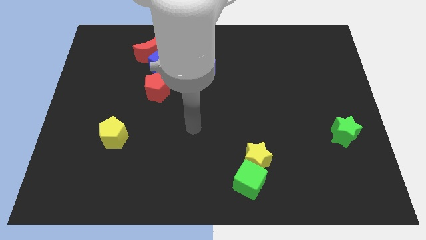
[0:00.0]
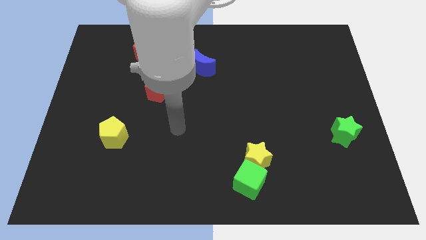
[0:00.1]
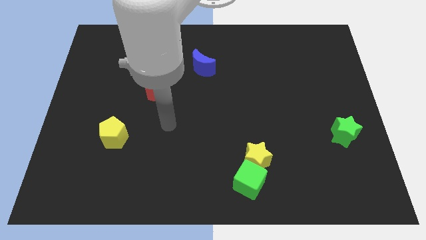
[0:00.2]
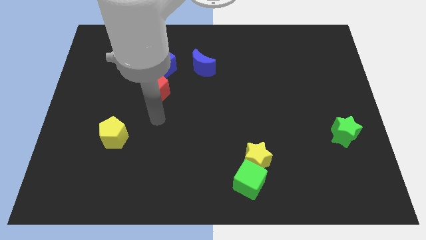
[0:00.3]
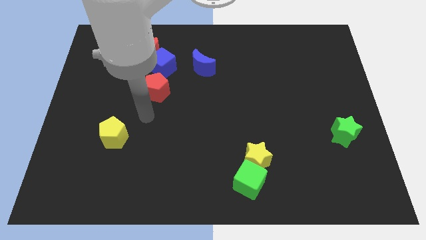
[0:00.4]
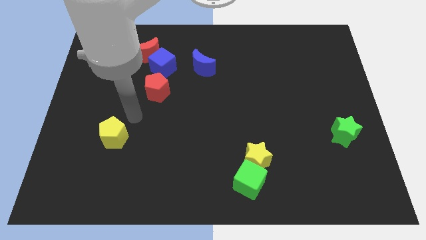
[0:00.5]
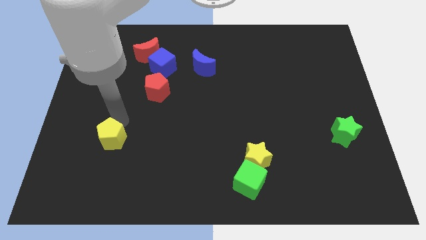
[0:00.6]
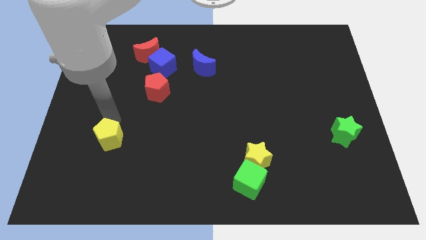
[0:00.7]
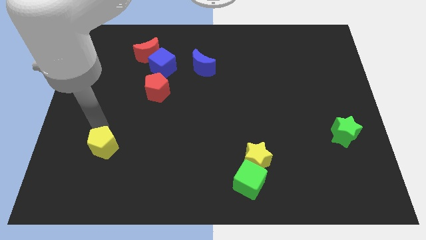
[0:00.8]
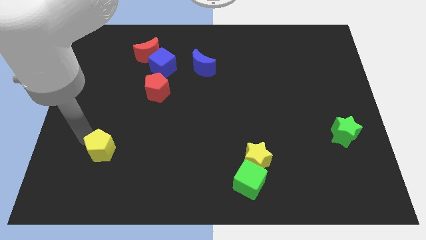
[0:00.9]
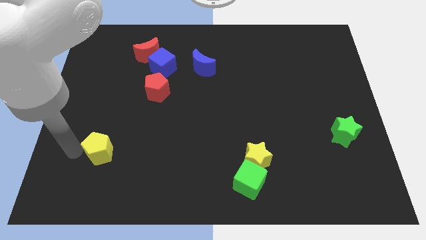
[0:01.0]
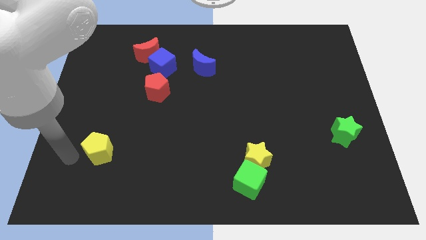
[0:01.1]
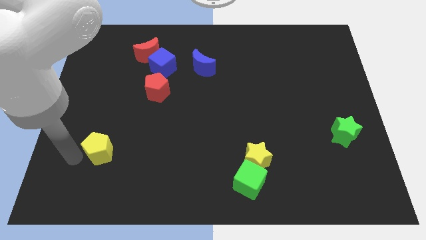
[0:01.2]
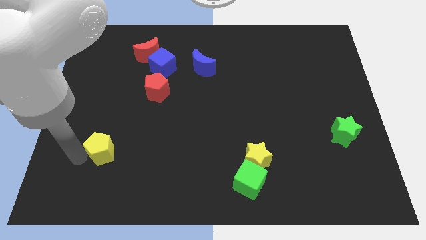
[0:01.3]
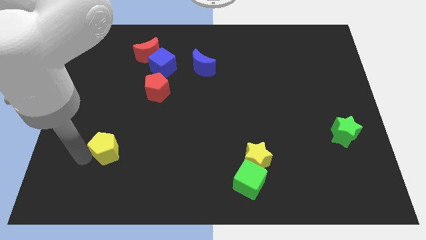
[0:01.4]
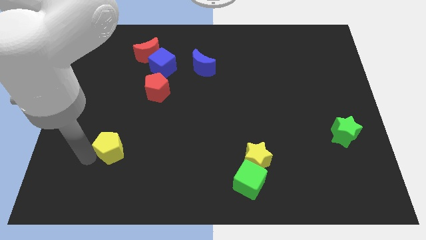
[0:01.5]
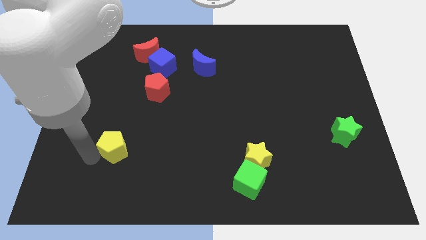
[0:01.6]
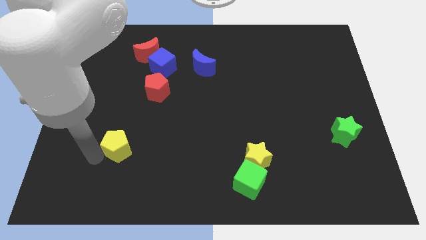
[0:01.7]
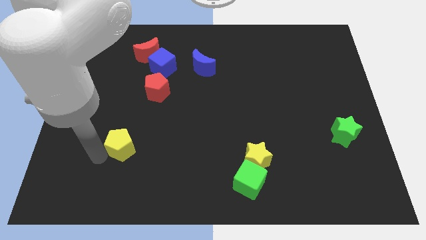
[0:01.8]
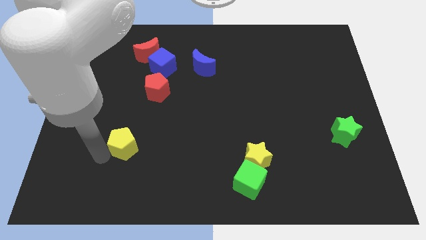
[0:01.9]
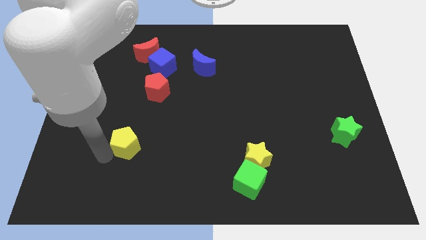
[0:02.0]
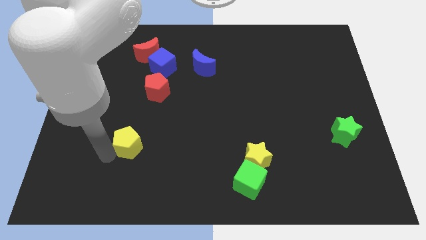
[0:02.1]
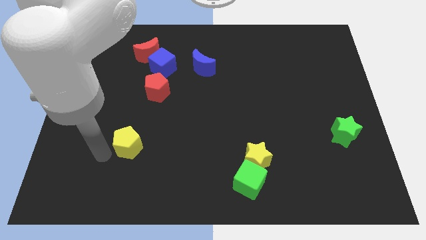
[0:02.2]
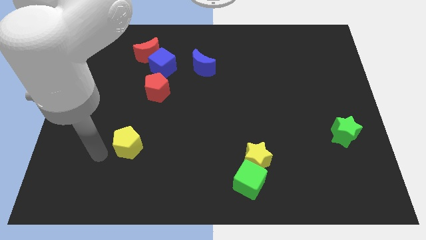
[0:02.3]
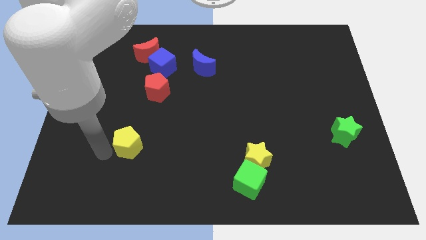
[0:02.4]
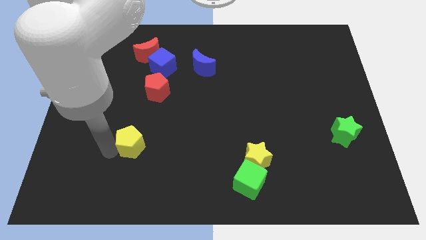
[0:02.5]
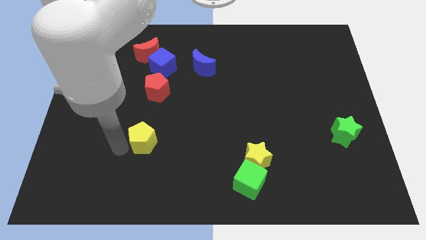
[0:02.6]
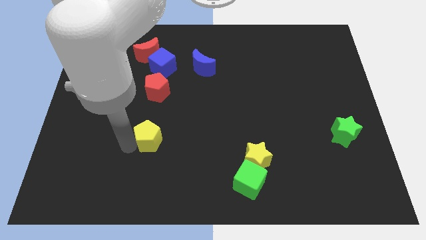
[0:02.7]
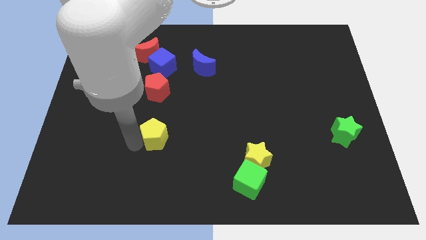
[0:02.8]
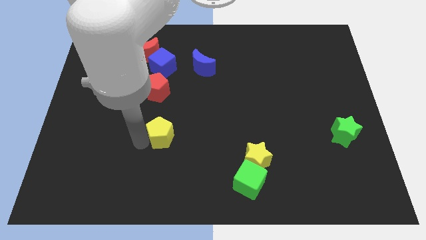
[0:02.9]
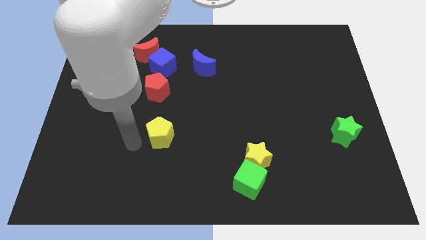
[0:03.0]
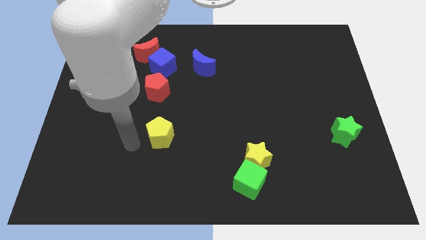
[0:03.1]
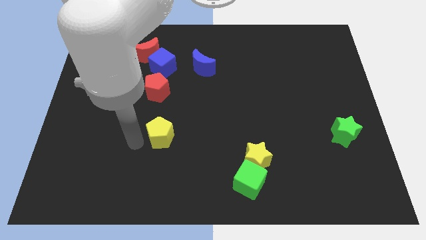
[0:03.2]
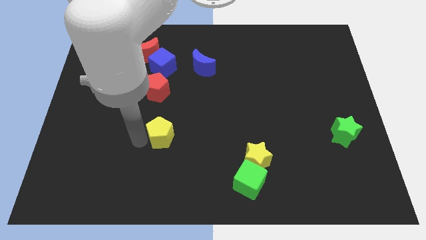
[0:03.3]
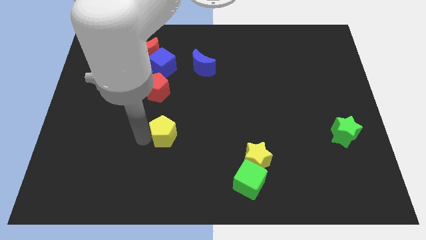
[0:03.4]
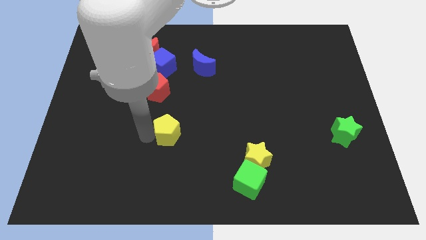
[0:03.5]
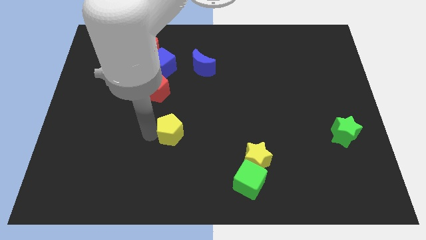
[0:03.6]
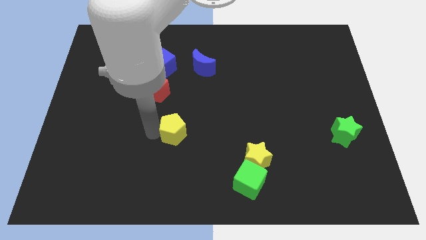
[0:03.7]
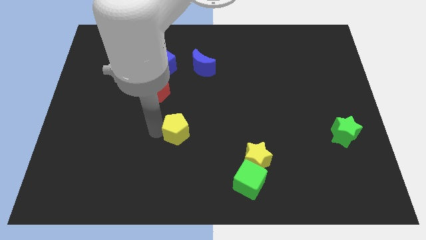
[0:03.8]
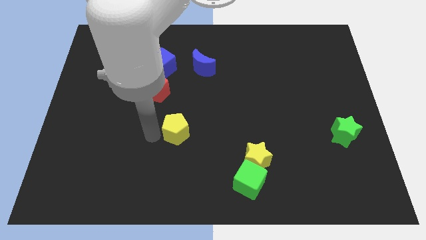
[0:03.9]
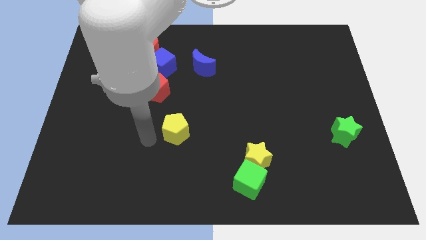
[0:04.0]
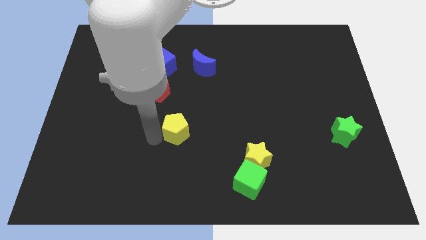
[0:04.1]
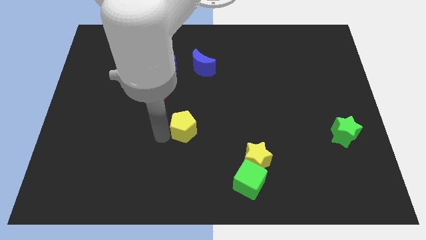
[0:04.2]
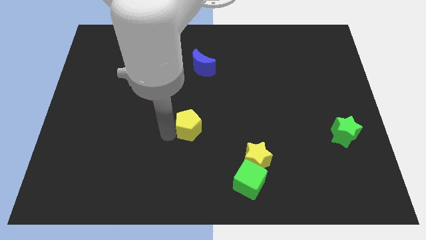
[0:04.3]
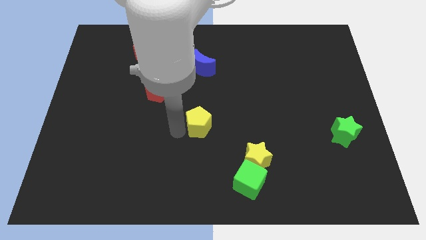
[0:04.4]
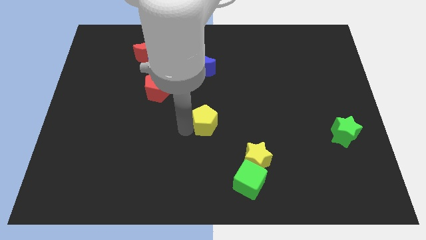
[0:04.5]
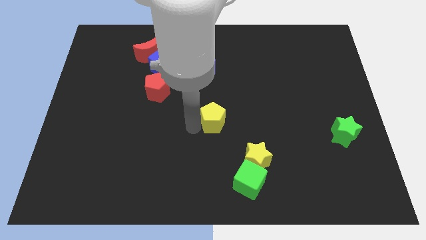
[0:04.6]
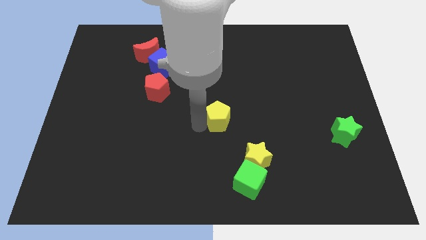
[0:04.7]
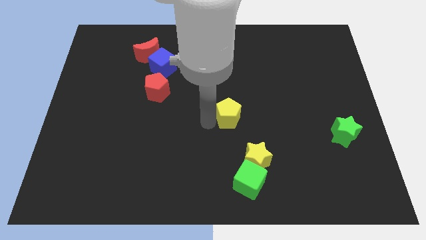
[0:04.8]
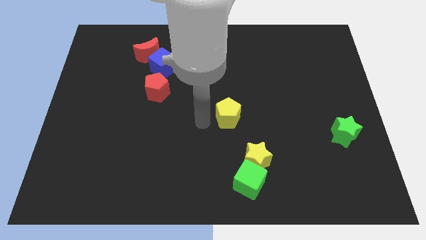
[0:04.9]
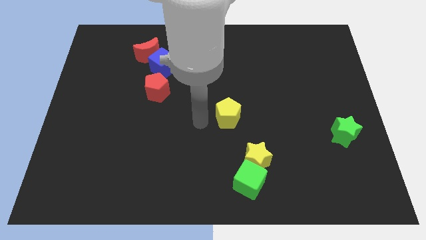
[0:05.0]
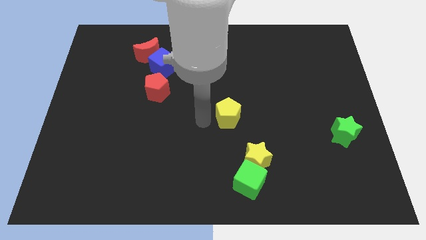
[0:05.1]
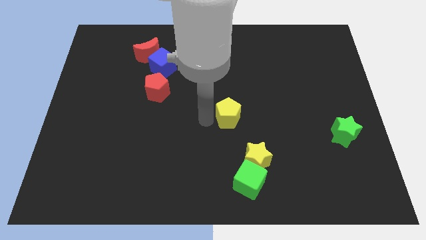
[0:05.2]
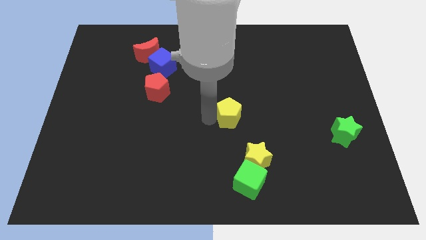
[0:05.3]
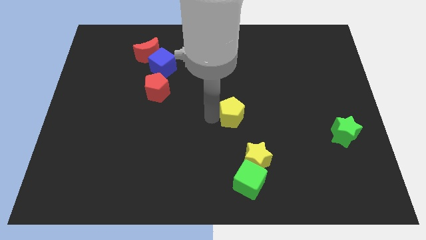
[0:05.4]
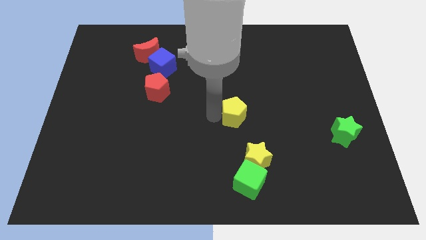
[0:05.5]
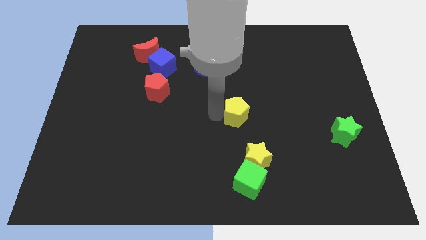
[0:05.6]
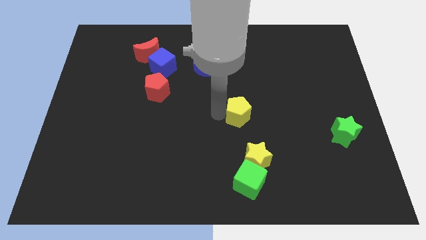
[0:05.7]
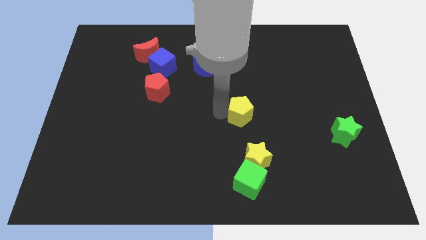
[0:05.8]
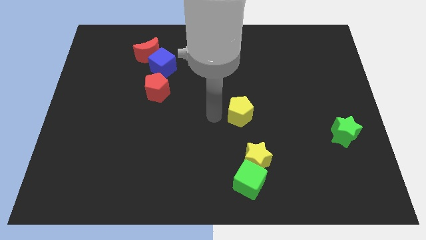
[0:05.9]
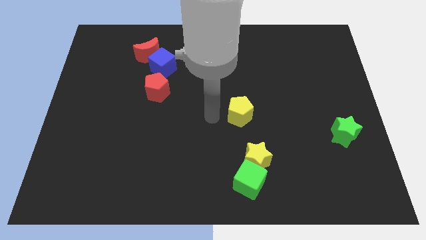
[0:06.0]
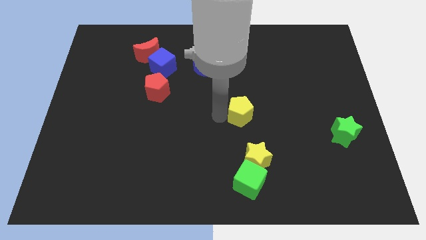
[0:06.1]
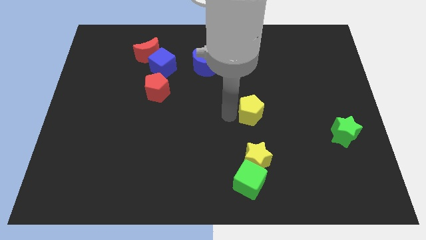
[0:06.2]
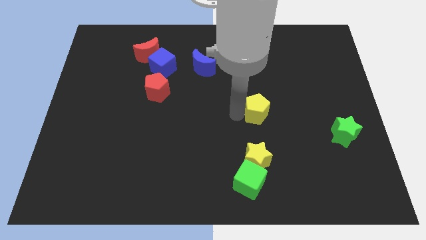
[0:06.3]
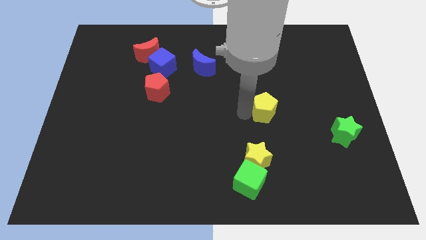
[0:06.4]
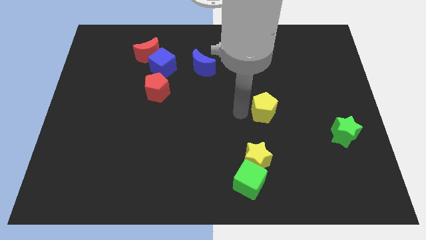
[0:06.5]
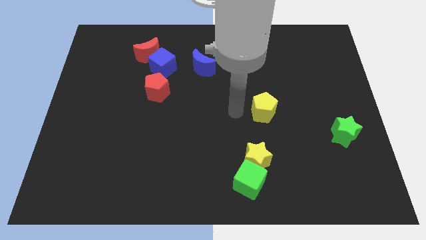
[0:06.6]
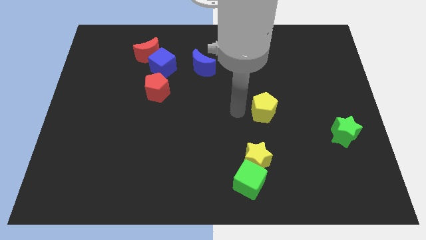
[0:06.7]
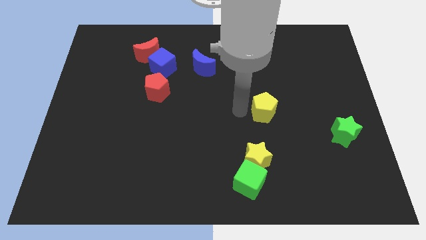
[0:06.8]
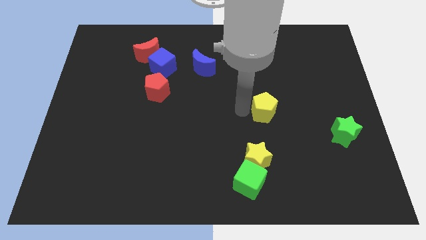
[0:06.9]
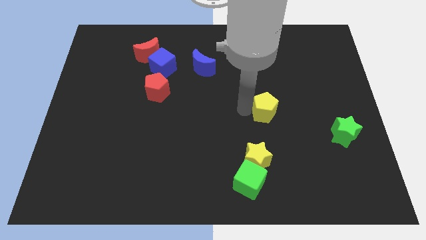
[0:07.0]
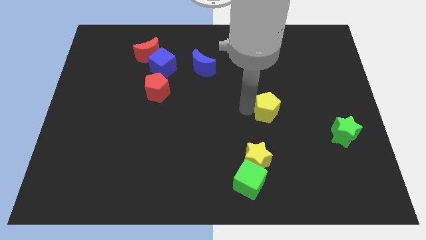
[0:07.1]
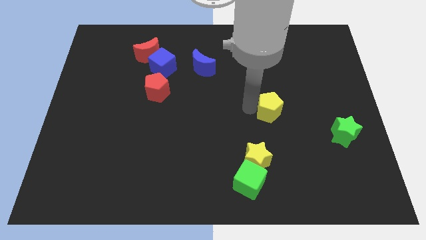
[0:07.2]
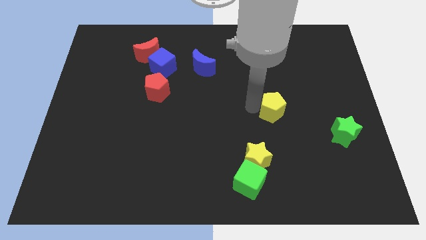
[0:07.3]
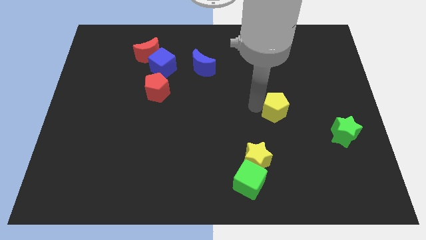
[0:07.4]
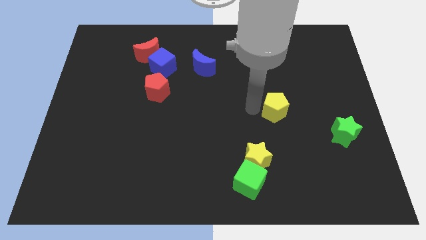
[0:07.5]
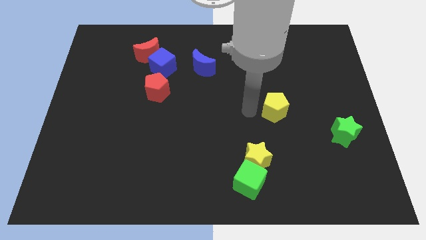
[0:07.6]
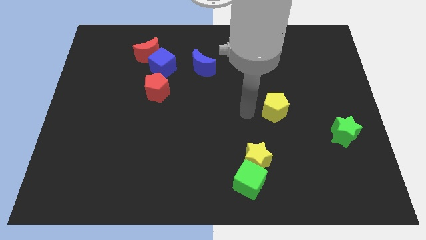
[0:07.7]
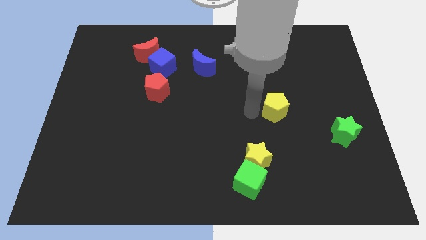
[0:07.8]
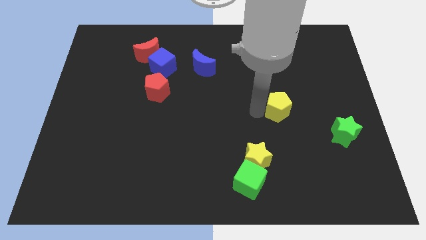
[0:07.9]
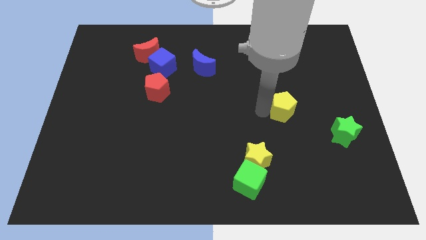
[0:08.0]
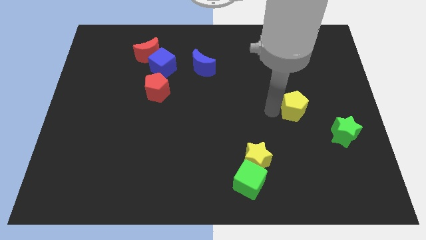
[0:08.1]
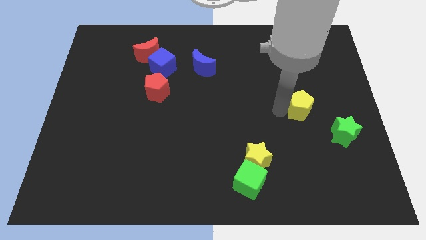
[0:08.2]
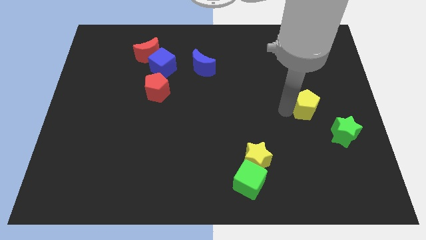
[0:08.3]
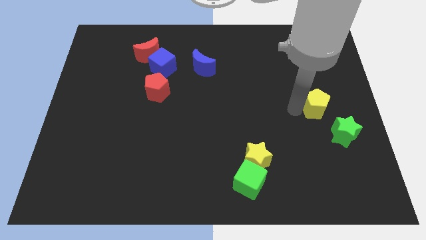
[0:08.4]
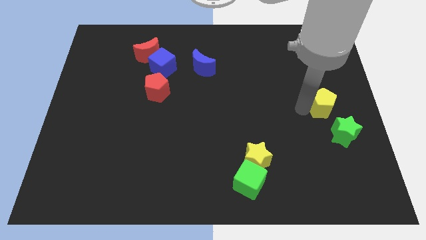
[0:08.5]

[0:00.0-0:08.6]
put the yellow pentagon to the center right
